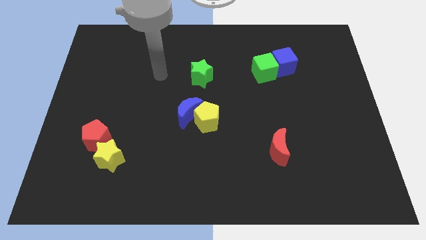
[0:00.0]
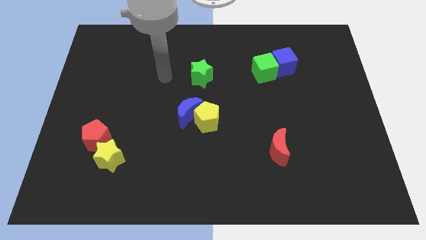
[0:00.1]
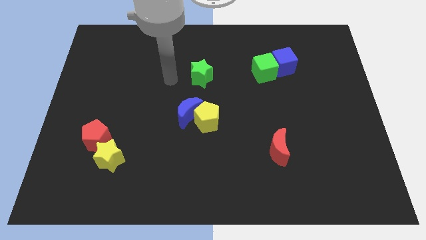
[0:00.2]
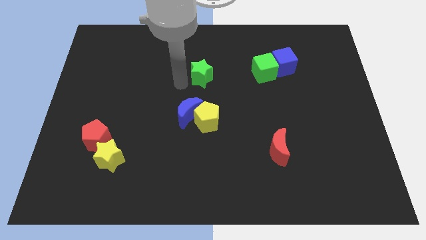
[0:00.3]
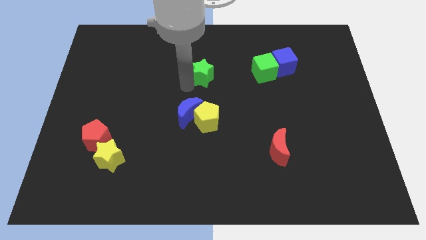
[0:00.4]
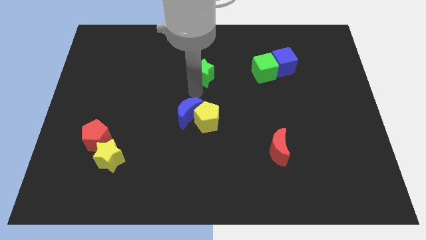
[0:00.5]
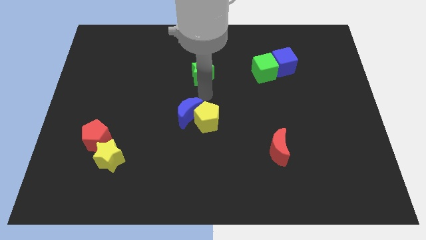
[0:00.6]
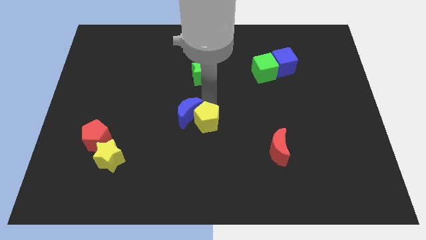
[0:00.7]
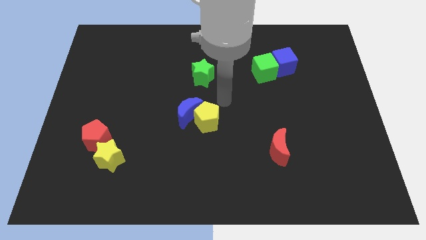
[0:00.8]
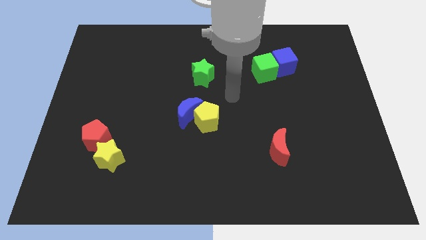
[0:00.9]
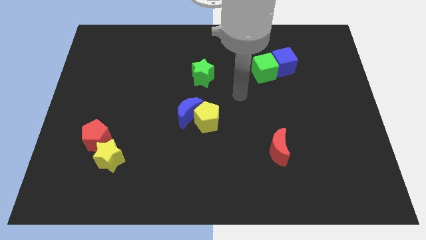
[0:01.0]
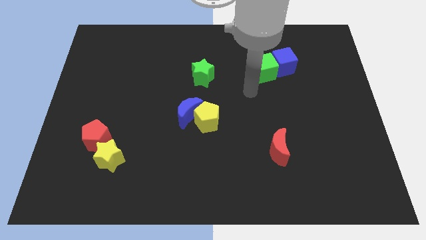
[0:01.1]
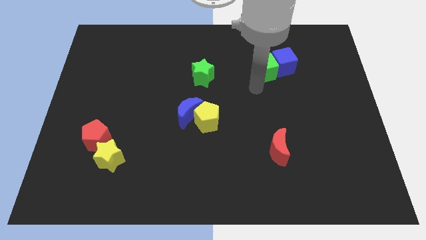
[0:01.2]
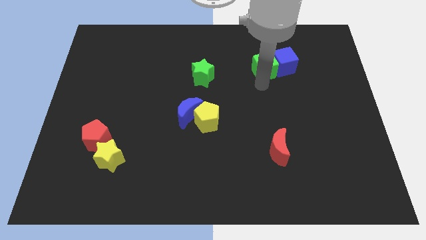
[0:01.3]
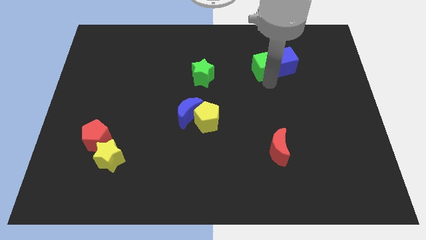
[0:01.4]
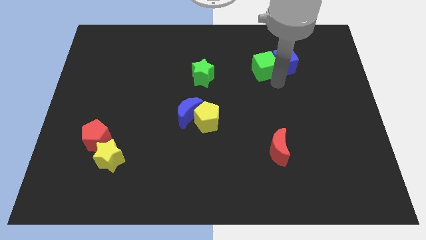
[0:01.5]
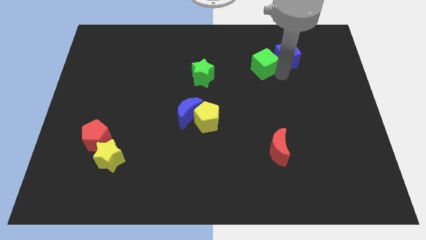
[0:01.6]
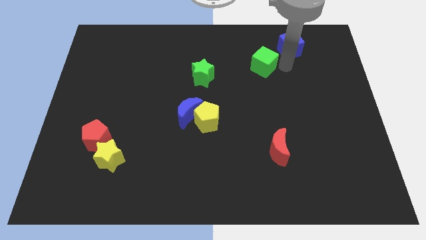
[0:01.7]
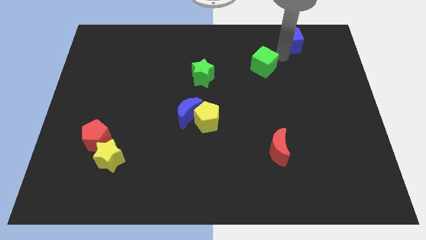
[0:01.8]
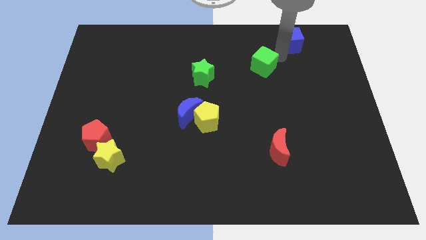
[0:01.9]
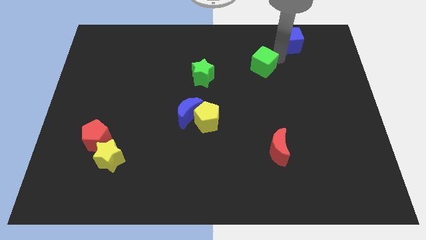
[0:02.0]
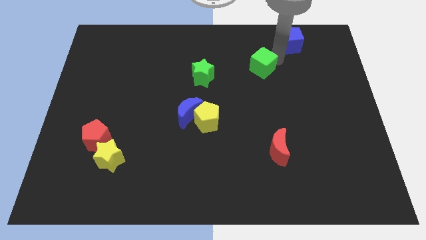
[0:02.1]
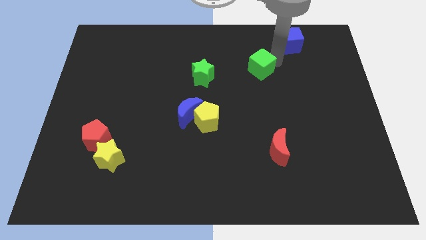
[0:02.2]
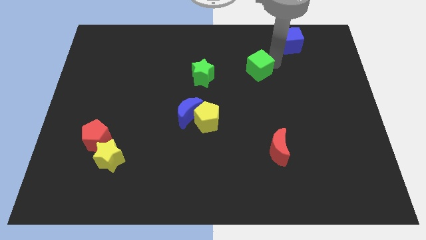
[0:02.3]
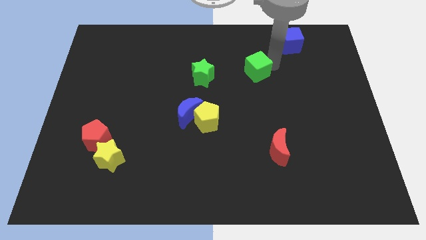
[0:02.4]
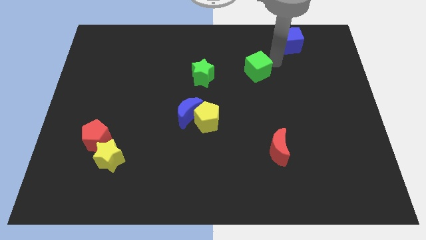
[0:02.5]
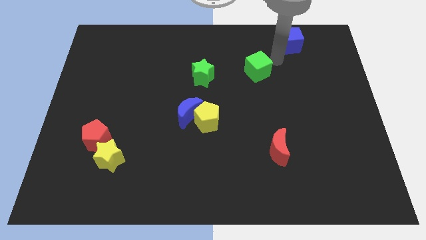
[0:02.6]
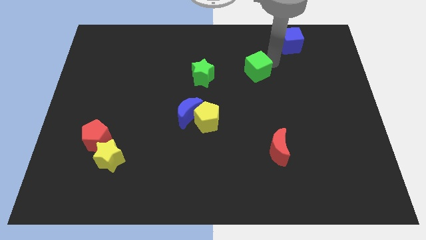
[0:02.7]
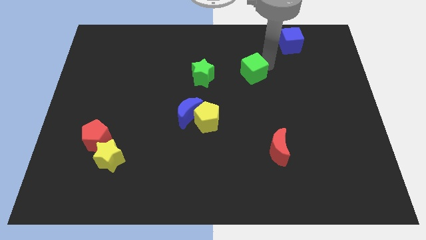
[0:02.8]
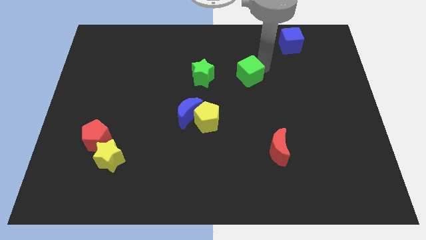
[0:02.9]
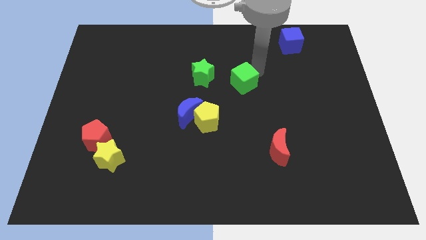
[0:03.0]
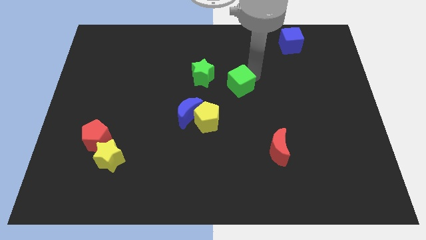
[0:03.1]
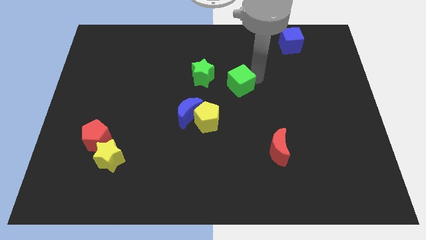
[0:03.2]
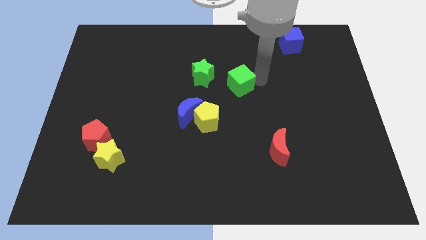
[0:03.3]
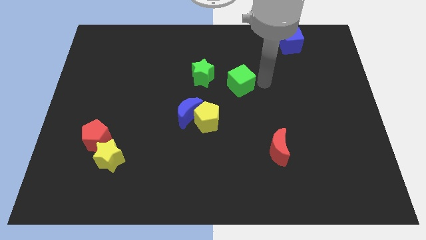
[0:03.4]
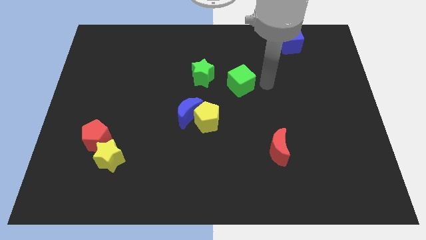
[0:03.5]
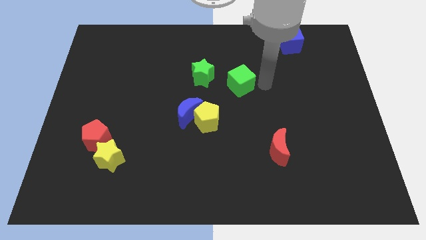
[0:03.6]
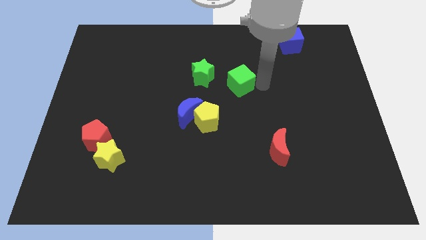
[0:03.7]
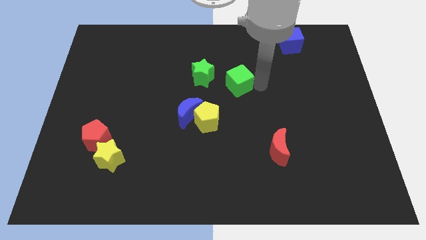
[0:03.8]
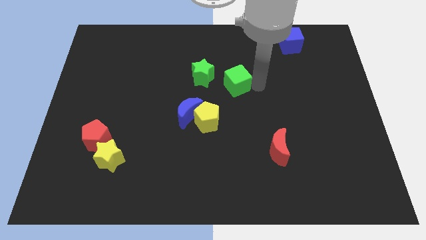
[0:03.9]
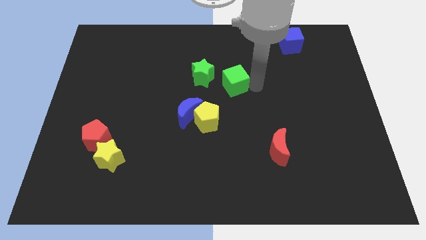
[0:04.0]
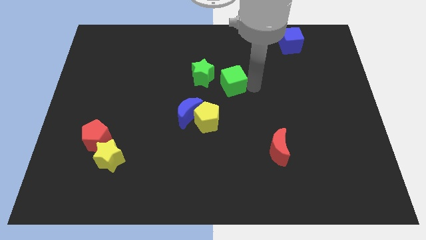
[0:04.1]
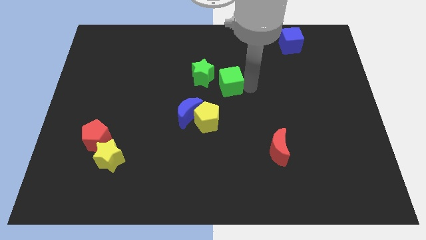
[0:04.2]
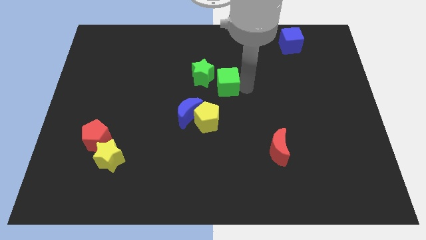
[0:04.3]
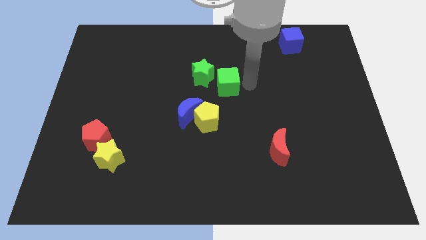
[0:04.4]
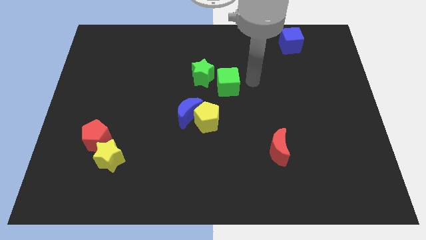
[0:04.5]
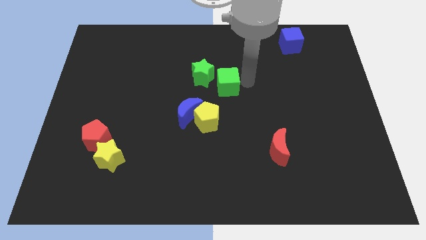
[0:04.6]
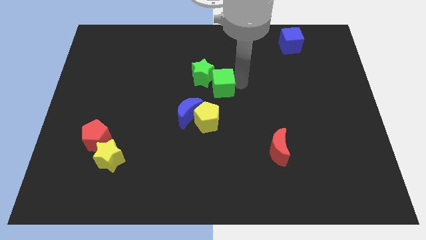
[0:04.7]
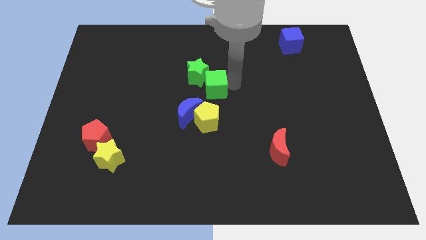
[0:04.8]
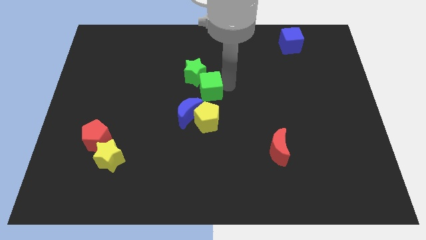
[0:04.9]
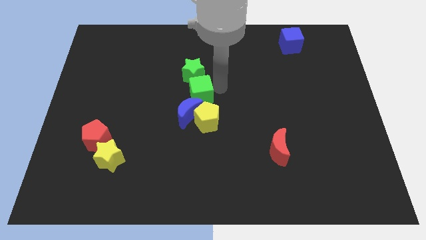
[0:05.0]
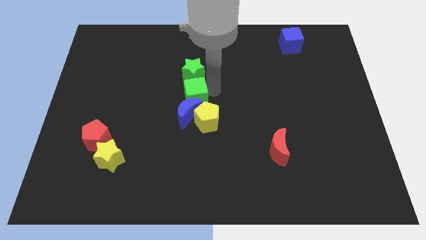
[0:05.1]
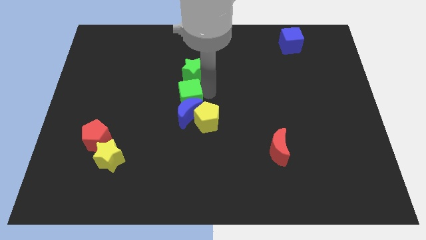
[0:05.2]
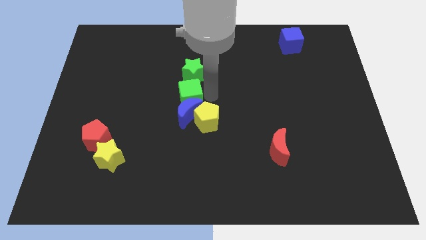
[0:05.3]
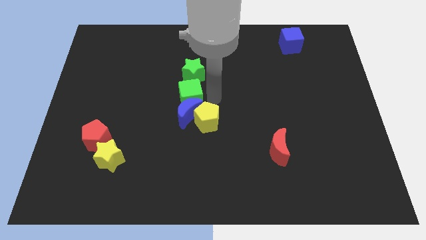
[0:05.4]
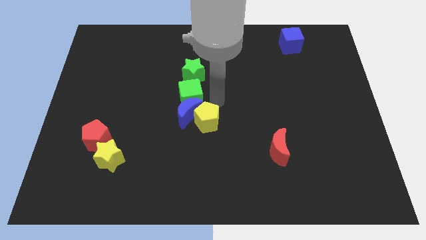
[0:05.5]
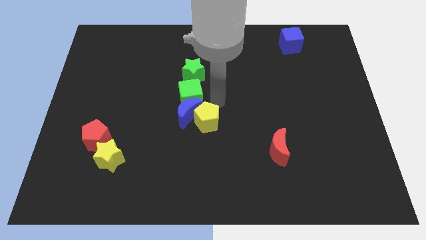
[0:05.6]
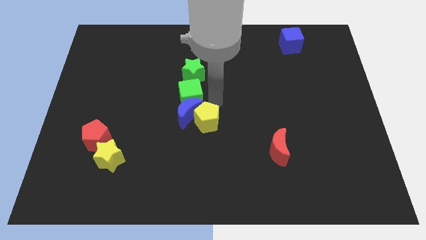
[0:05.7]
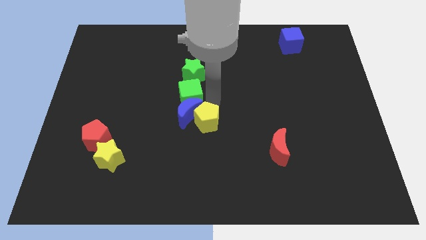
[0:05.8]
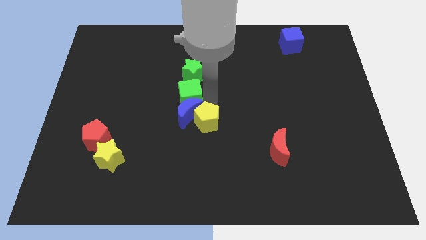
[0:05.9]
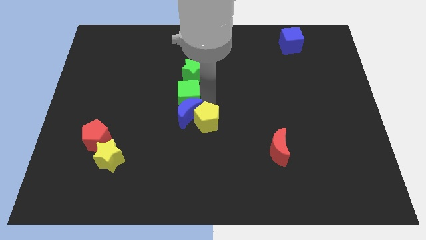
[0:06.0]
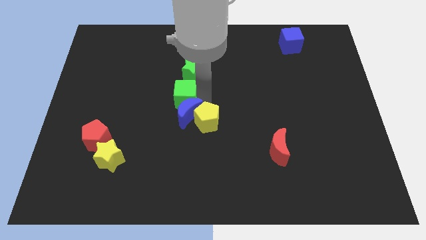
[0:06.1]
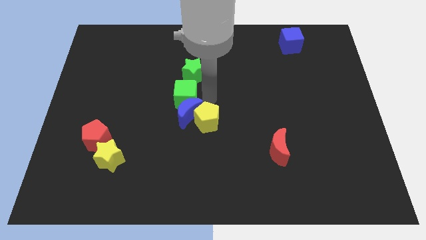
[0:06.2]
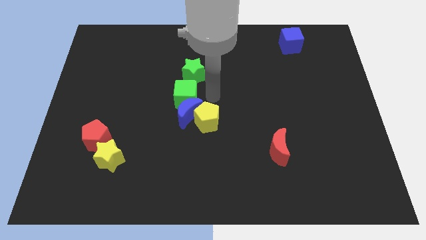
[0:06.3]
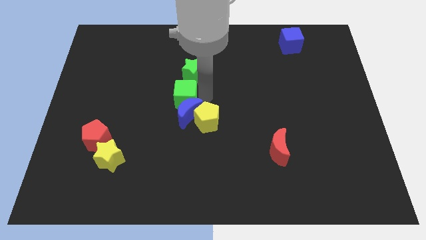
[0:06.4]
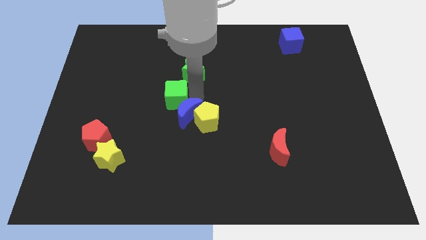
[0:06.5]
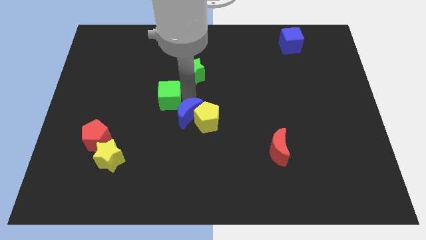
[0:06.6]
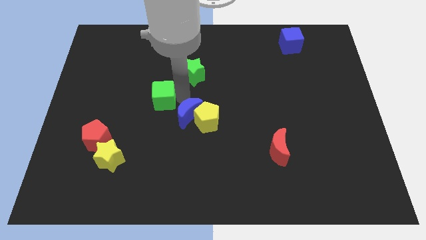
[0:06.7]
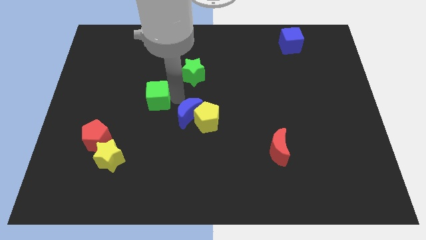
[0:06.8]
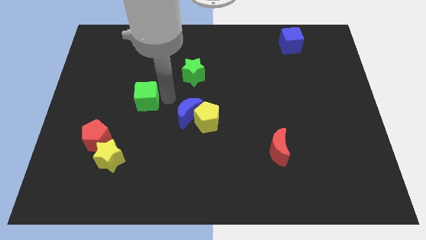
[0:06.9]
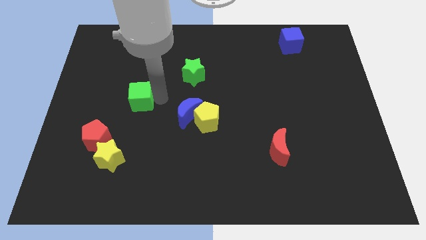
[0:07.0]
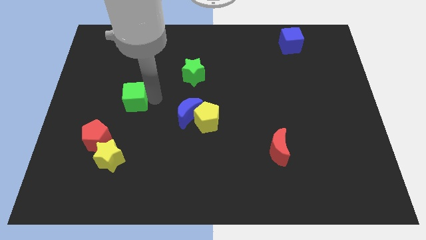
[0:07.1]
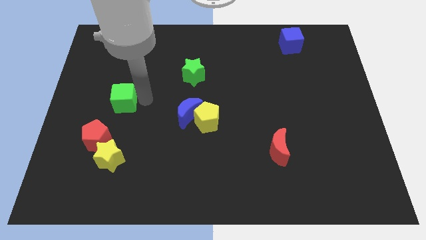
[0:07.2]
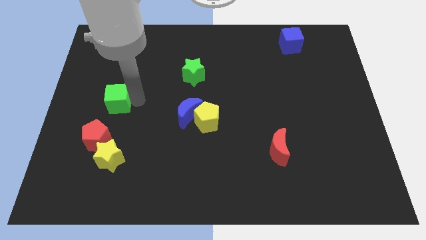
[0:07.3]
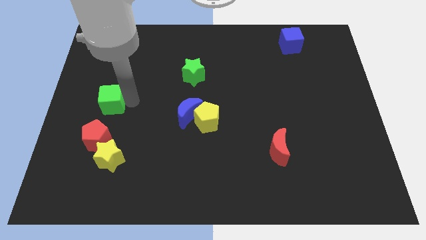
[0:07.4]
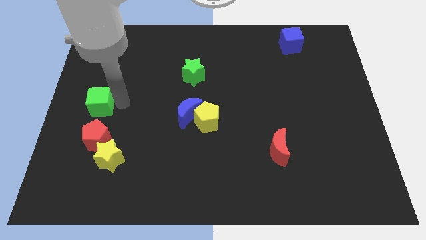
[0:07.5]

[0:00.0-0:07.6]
push the green cube to the center left

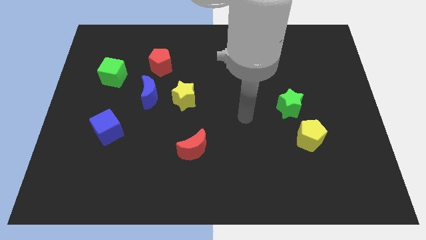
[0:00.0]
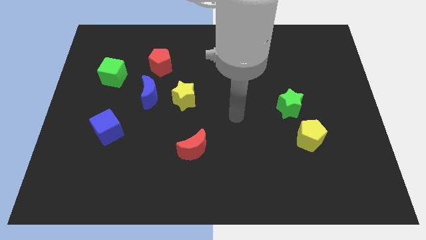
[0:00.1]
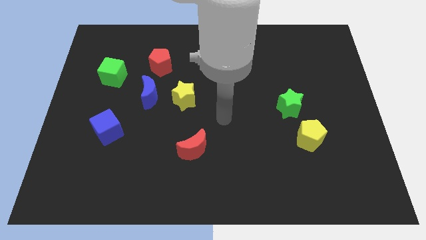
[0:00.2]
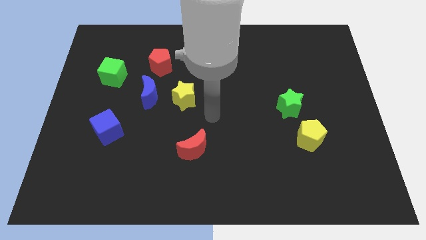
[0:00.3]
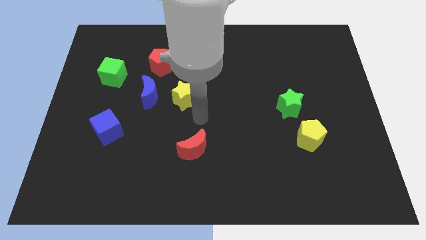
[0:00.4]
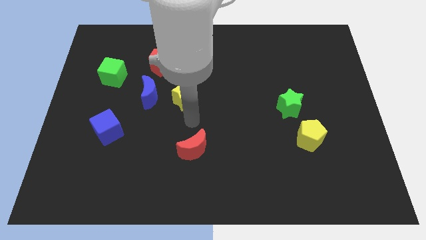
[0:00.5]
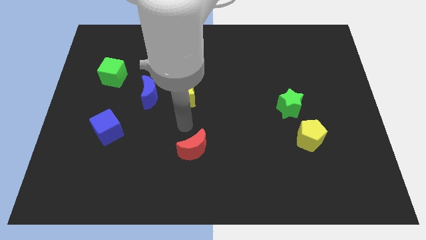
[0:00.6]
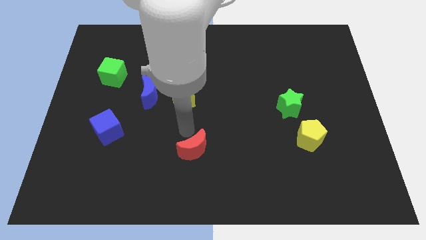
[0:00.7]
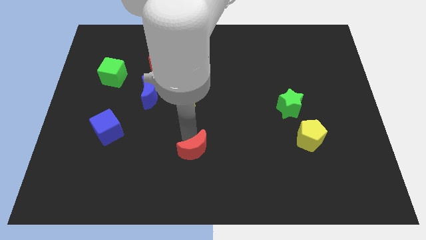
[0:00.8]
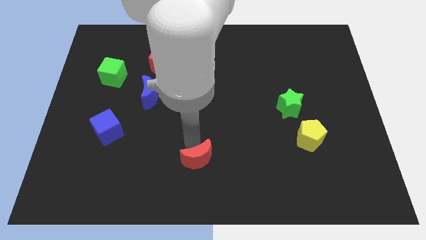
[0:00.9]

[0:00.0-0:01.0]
push the red moon to the bottom side
